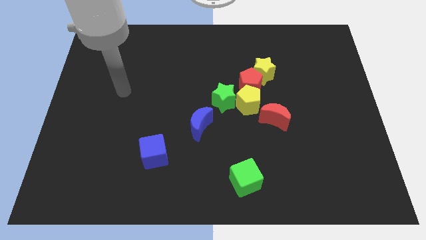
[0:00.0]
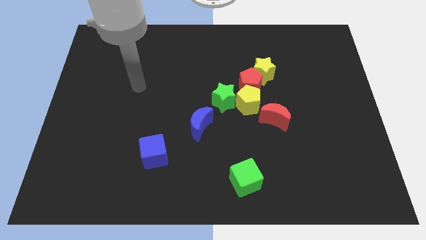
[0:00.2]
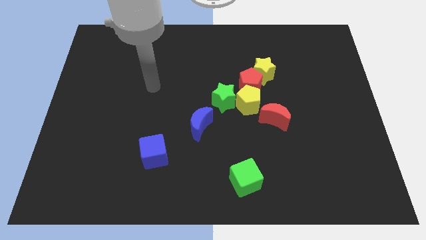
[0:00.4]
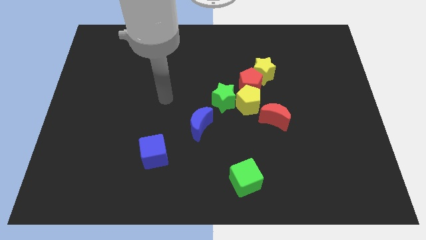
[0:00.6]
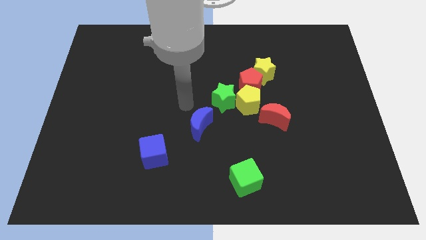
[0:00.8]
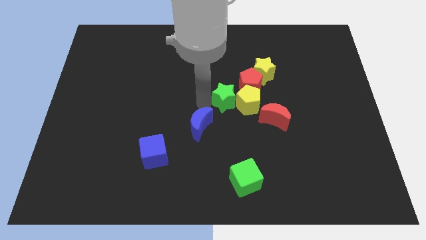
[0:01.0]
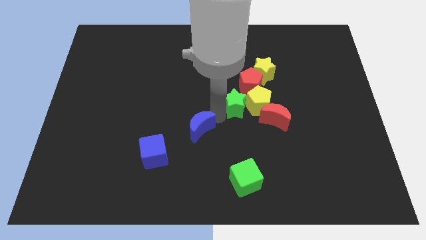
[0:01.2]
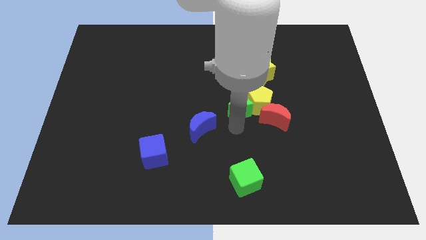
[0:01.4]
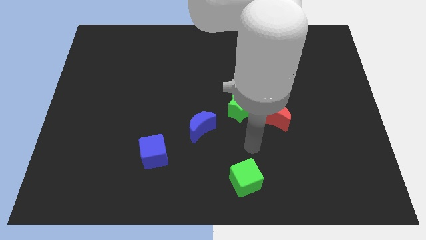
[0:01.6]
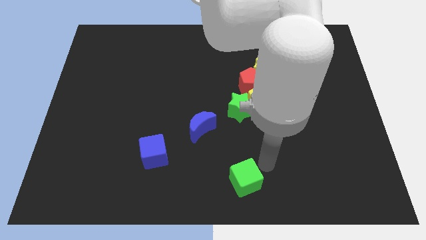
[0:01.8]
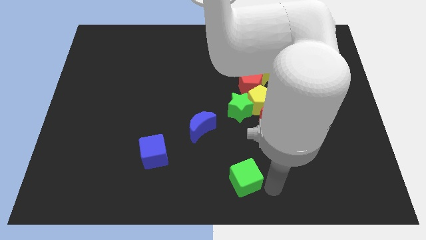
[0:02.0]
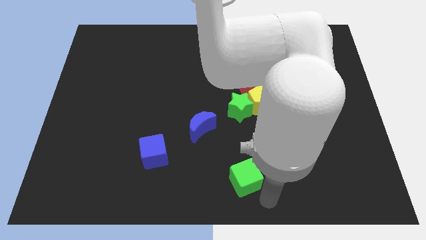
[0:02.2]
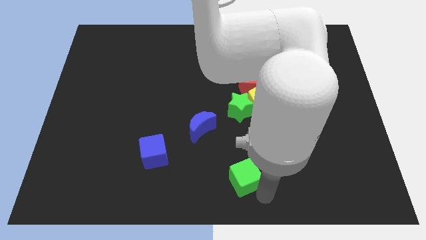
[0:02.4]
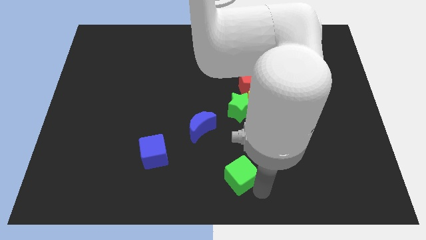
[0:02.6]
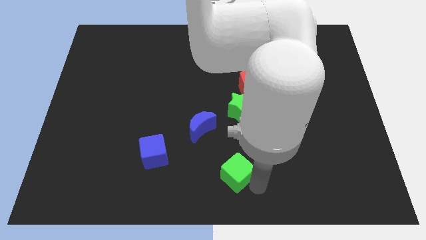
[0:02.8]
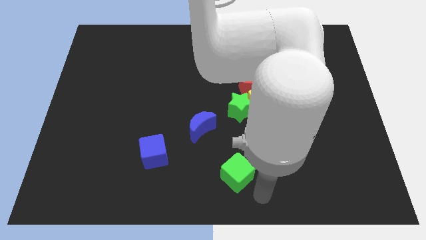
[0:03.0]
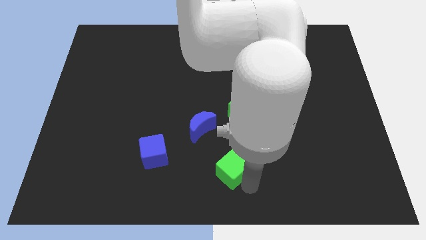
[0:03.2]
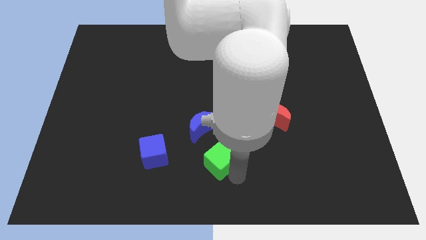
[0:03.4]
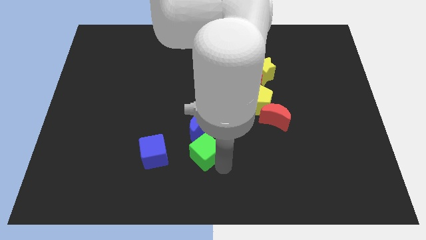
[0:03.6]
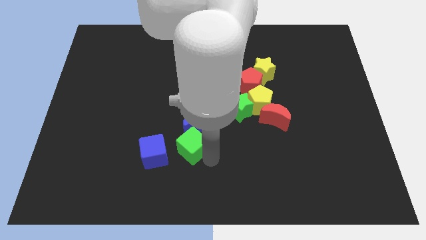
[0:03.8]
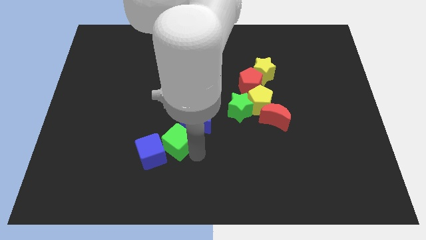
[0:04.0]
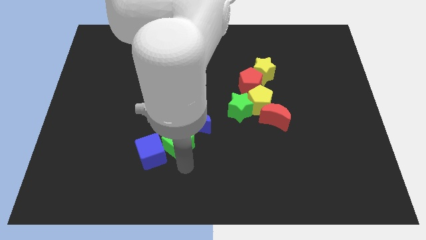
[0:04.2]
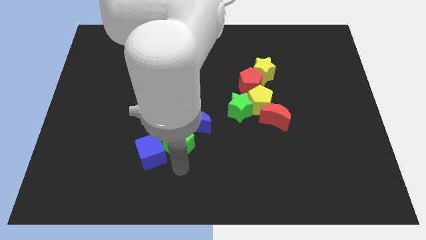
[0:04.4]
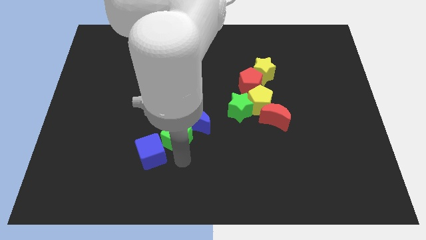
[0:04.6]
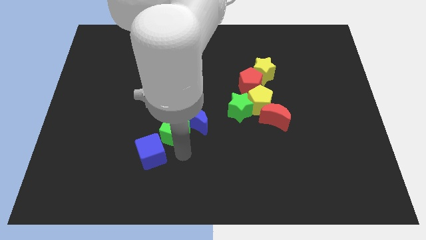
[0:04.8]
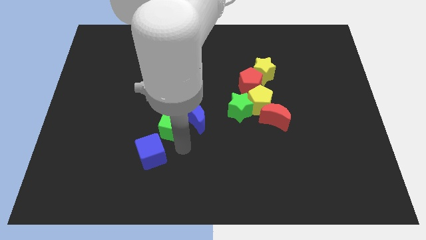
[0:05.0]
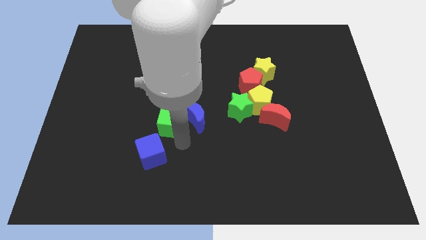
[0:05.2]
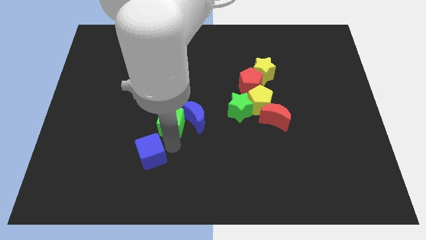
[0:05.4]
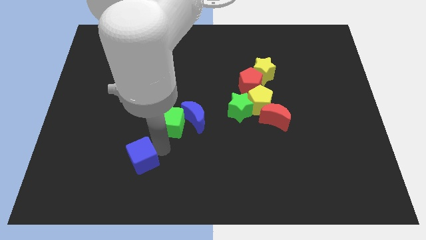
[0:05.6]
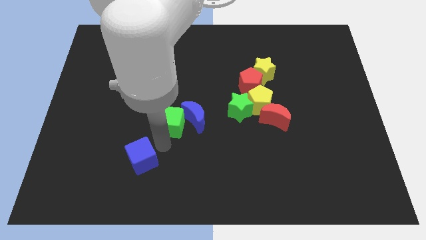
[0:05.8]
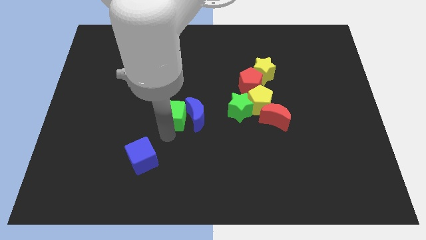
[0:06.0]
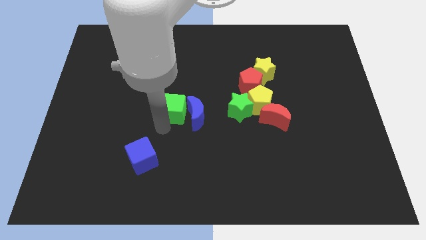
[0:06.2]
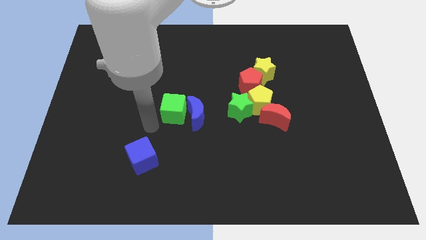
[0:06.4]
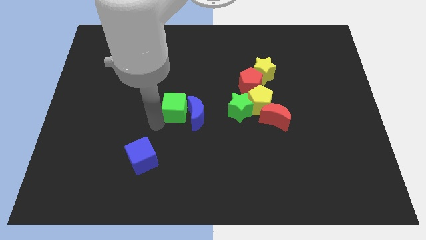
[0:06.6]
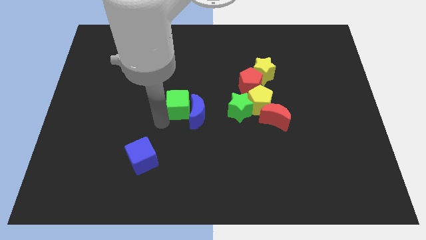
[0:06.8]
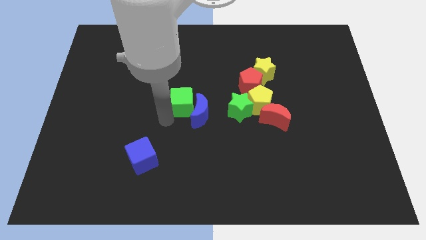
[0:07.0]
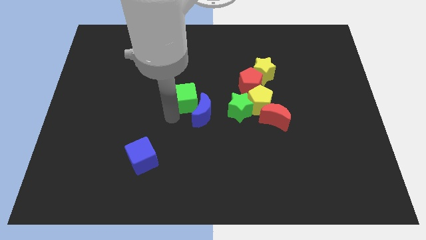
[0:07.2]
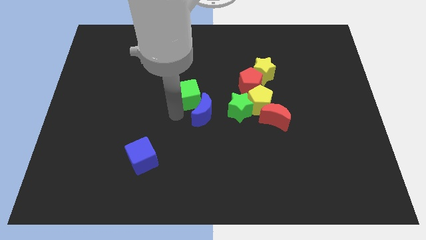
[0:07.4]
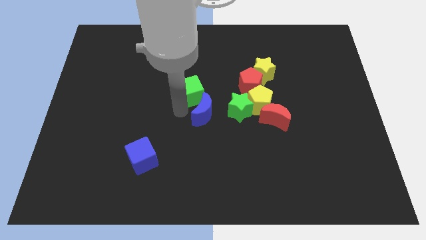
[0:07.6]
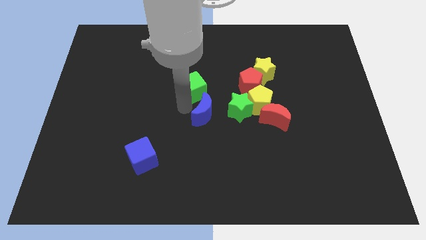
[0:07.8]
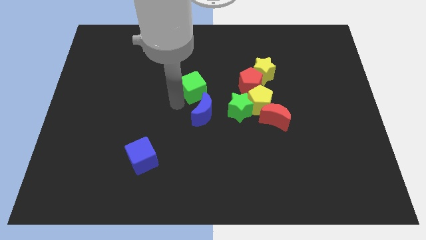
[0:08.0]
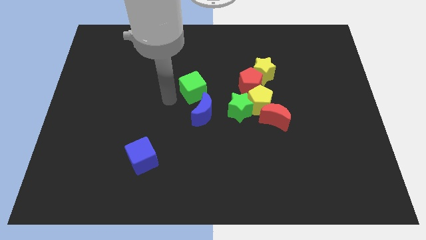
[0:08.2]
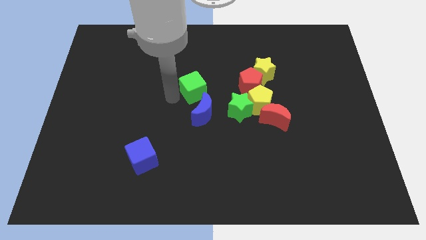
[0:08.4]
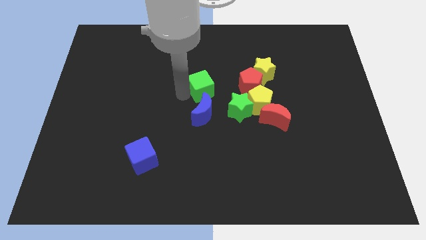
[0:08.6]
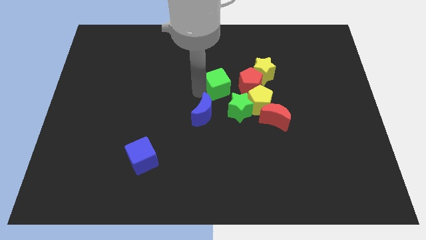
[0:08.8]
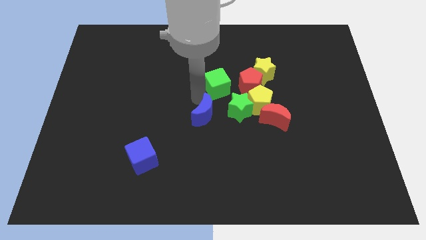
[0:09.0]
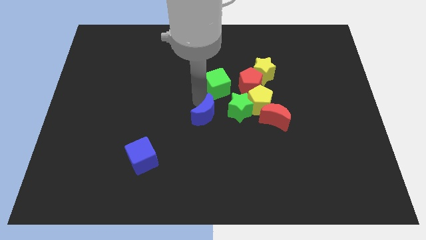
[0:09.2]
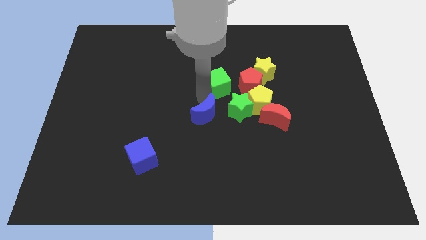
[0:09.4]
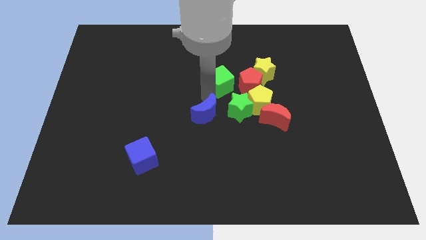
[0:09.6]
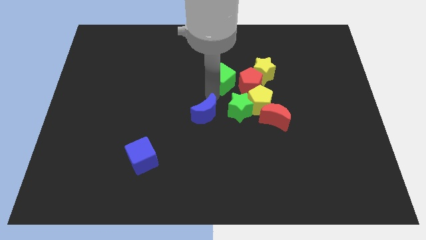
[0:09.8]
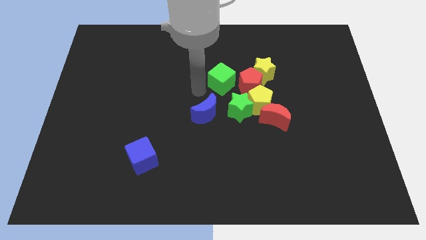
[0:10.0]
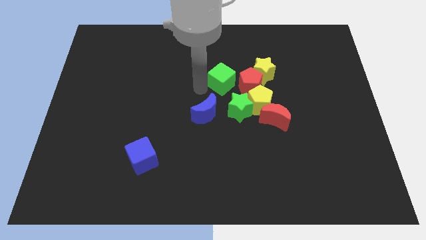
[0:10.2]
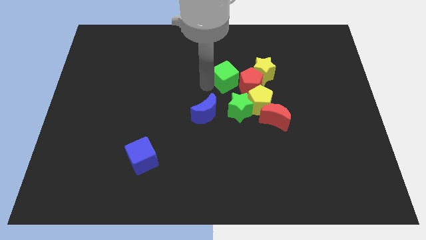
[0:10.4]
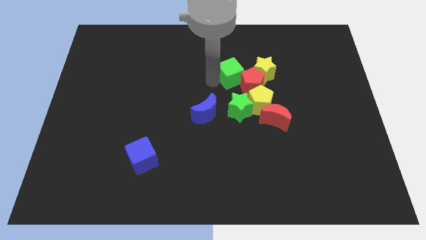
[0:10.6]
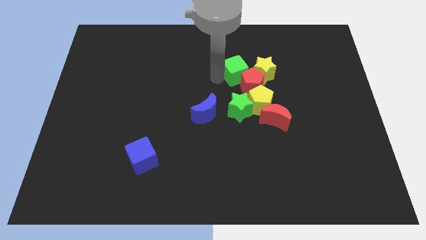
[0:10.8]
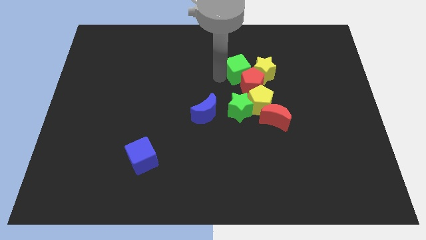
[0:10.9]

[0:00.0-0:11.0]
move the green cube above the yellow pentagon

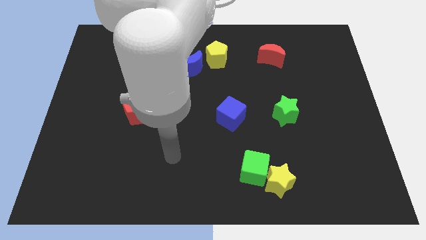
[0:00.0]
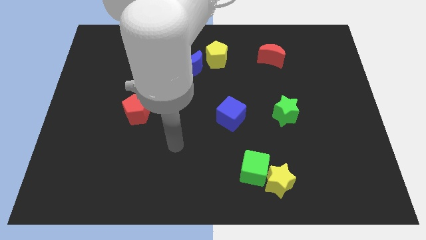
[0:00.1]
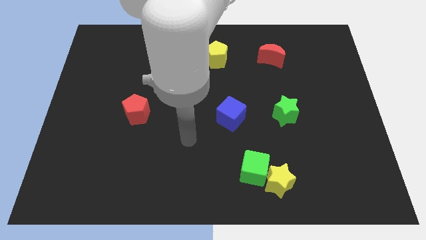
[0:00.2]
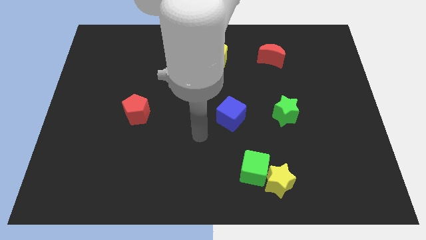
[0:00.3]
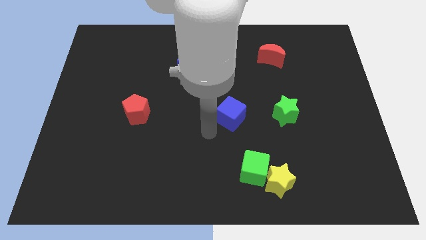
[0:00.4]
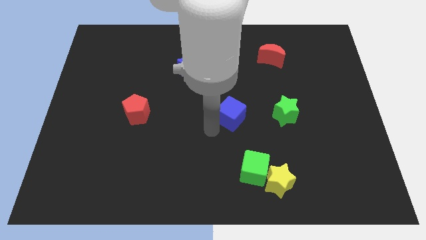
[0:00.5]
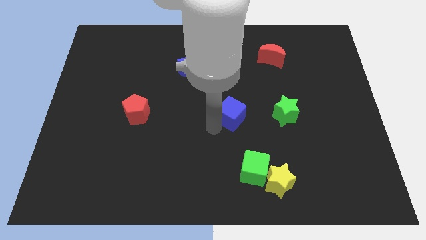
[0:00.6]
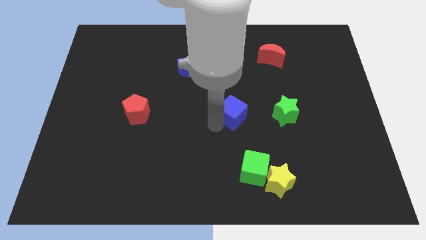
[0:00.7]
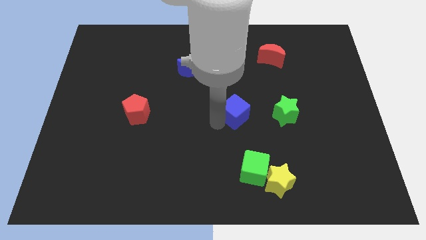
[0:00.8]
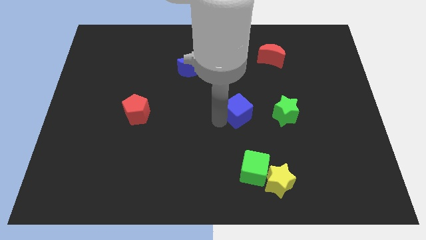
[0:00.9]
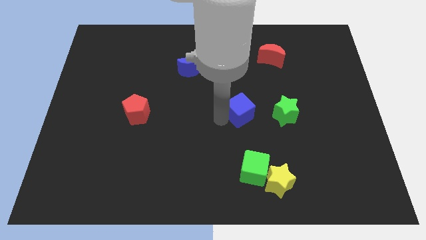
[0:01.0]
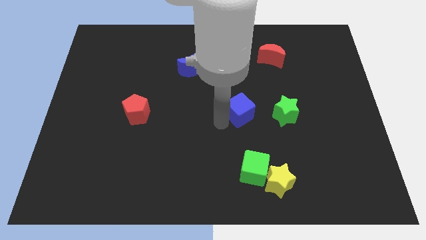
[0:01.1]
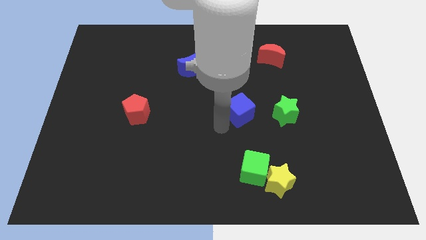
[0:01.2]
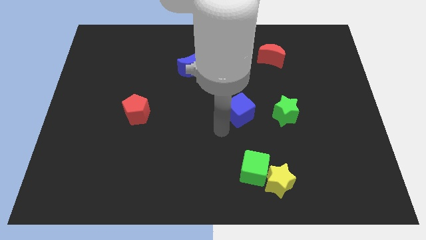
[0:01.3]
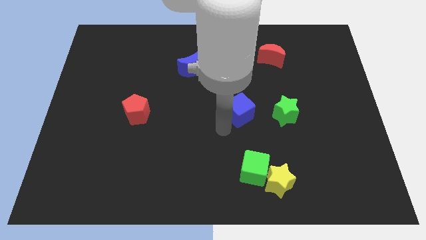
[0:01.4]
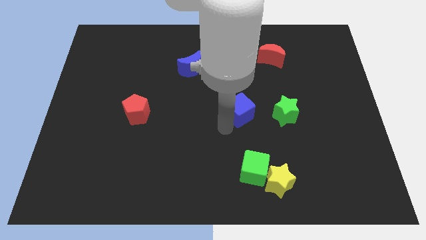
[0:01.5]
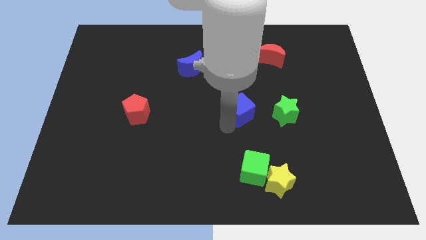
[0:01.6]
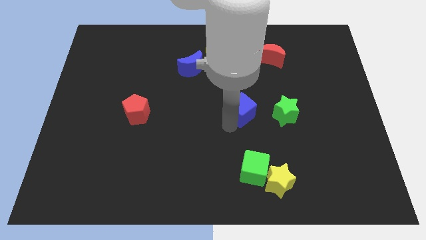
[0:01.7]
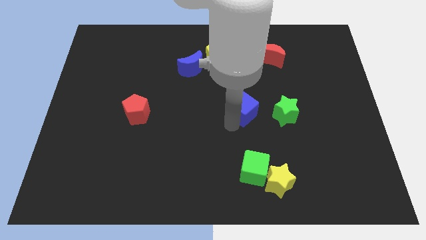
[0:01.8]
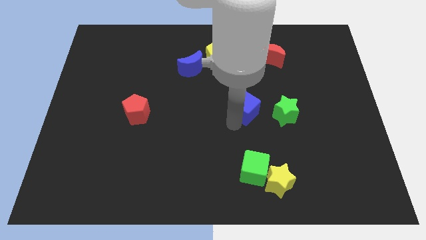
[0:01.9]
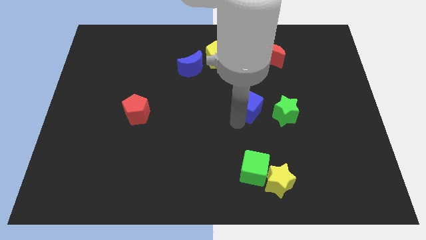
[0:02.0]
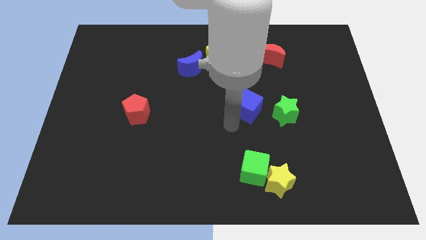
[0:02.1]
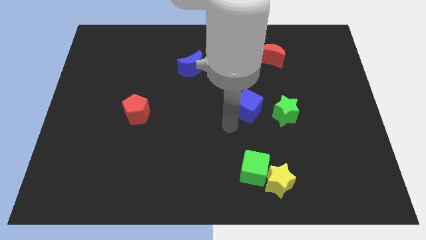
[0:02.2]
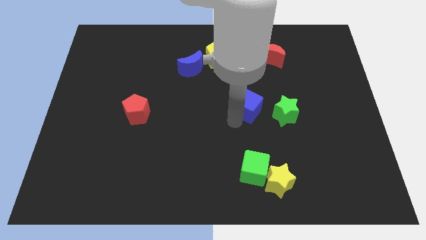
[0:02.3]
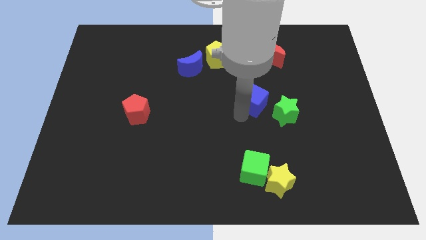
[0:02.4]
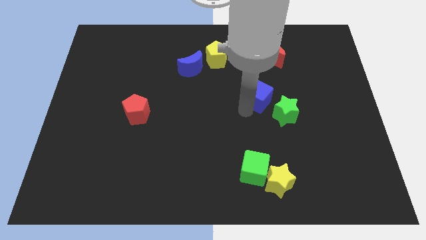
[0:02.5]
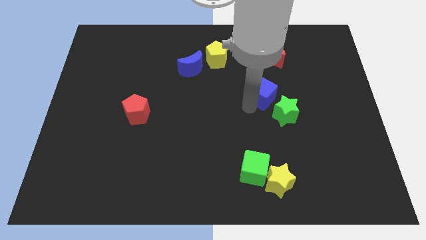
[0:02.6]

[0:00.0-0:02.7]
move the blue cube to the top side of the green star
